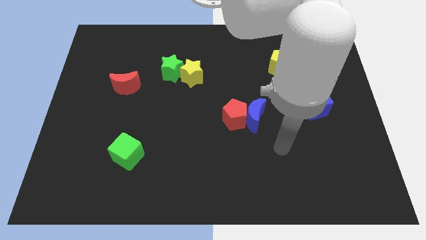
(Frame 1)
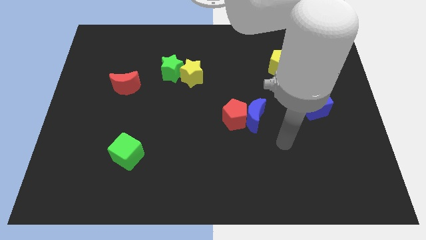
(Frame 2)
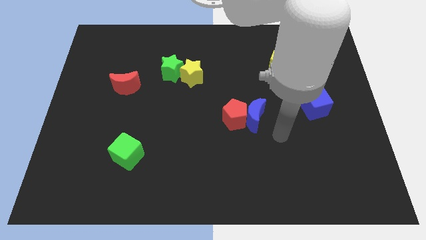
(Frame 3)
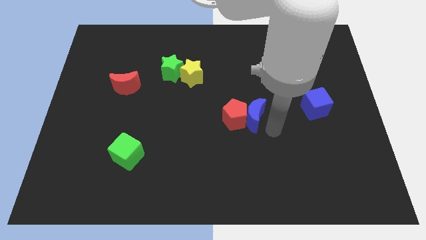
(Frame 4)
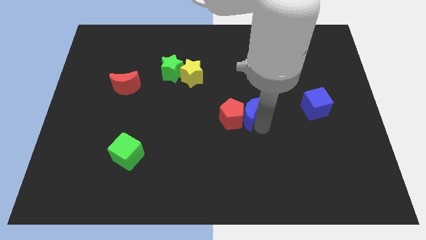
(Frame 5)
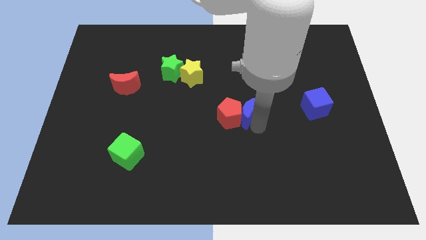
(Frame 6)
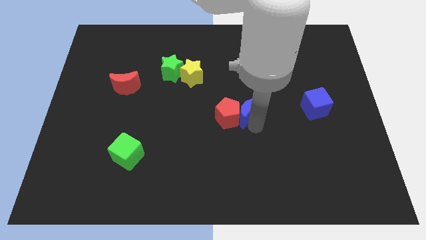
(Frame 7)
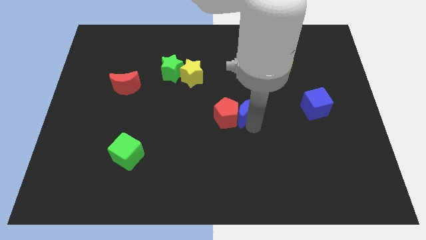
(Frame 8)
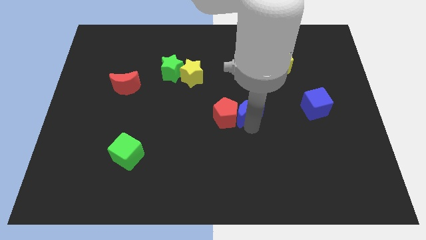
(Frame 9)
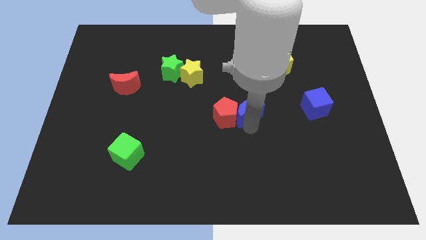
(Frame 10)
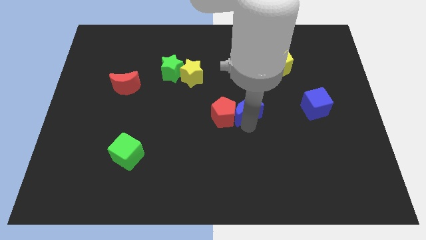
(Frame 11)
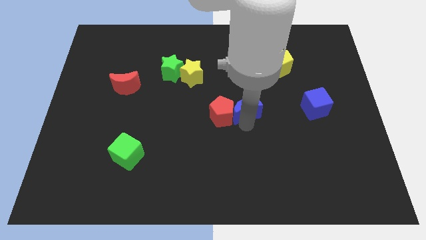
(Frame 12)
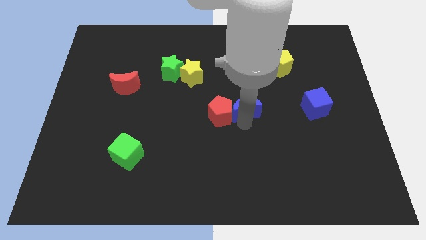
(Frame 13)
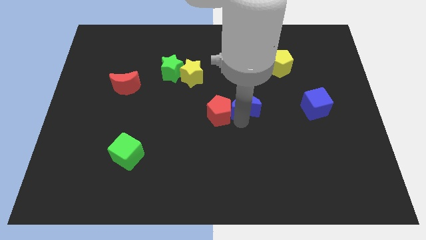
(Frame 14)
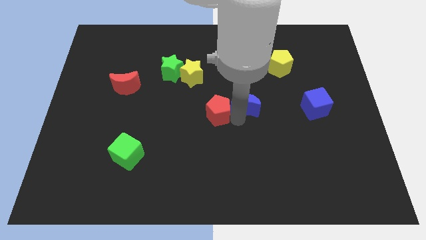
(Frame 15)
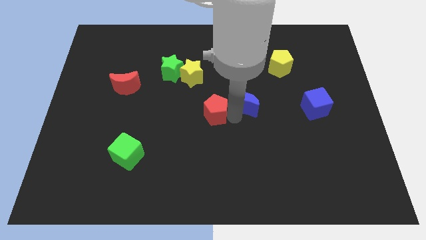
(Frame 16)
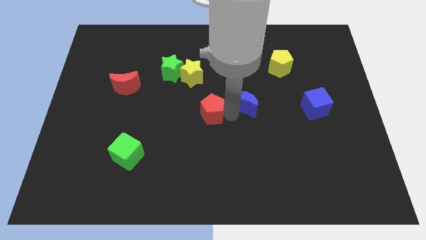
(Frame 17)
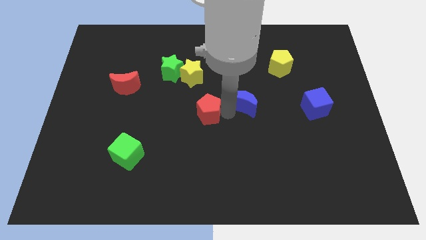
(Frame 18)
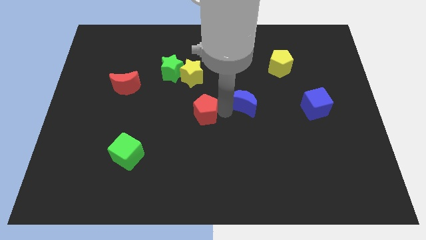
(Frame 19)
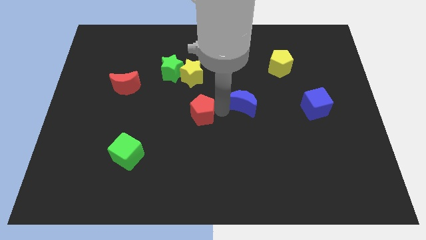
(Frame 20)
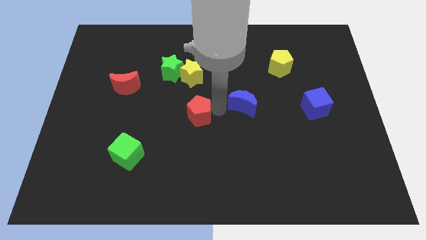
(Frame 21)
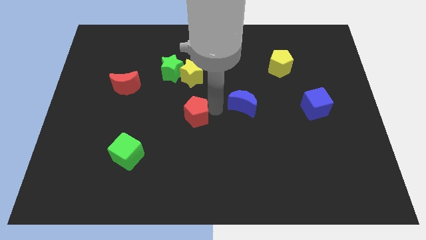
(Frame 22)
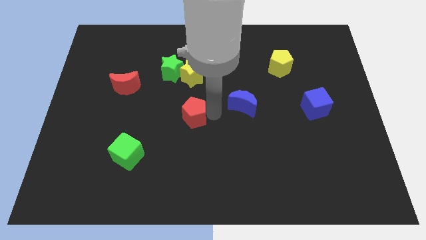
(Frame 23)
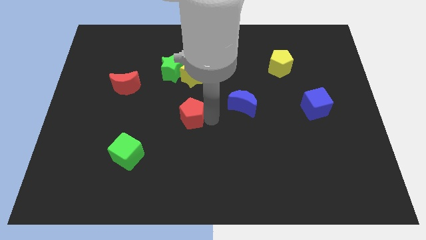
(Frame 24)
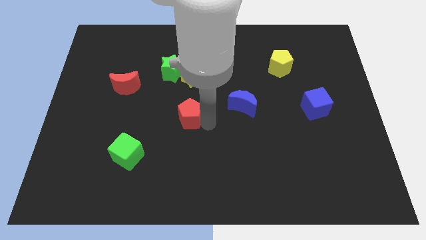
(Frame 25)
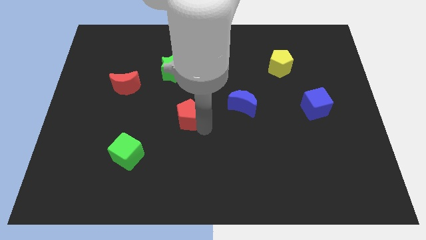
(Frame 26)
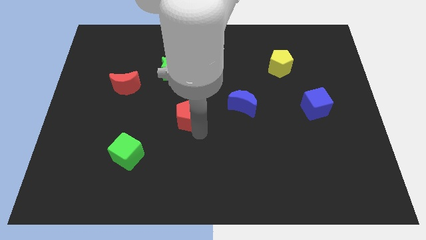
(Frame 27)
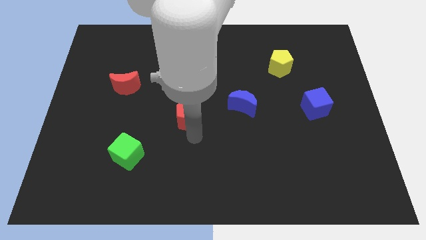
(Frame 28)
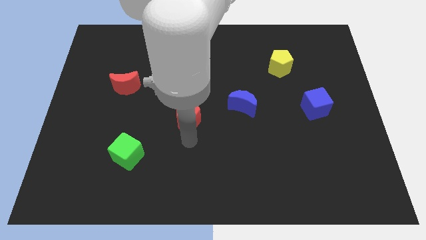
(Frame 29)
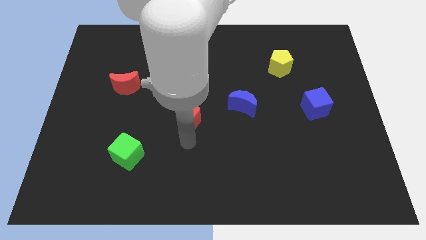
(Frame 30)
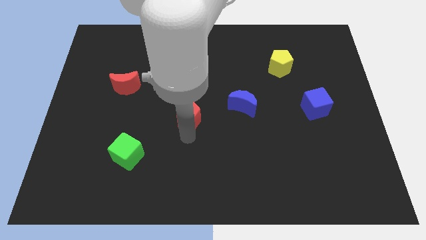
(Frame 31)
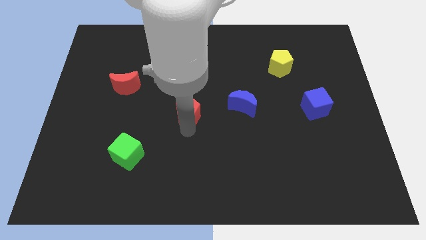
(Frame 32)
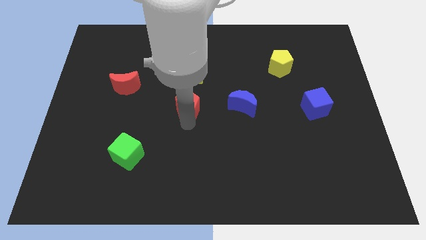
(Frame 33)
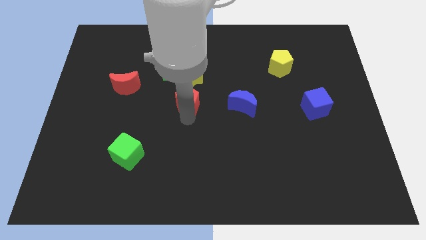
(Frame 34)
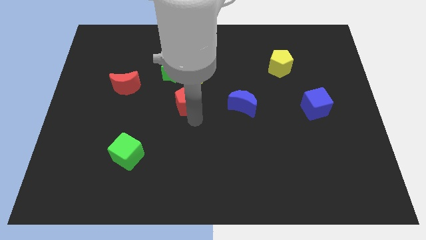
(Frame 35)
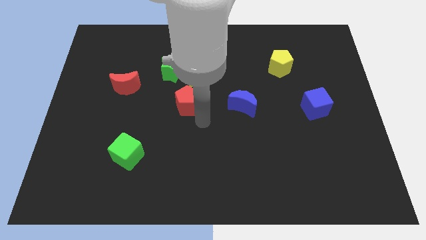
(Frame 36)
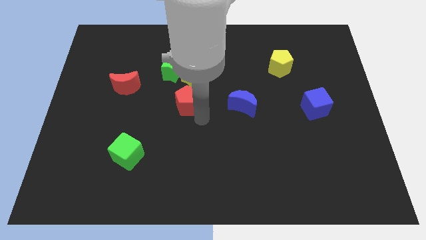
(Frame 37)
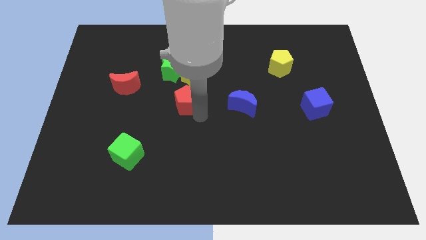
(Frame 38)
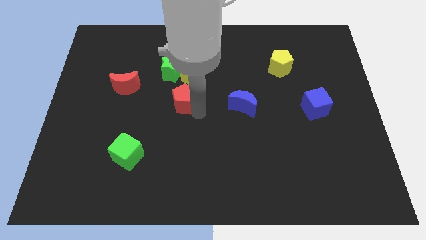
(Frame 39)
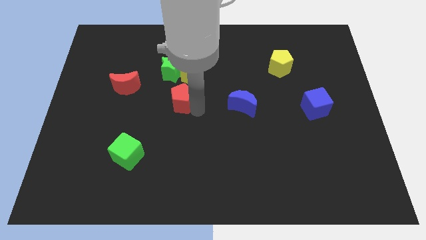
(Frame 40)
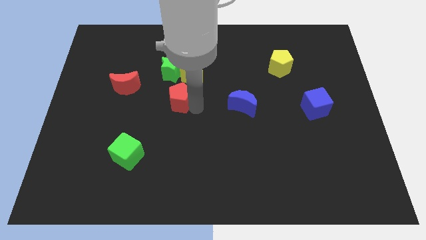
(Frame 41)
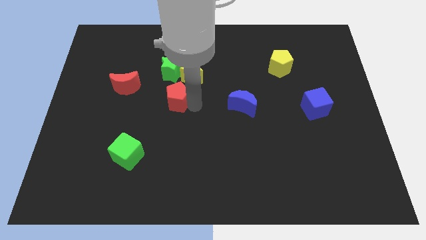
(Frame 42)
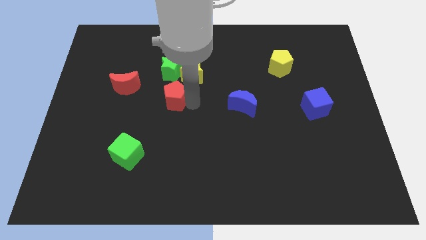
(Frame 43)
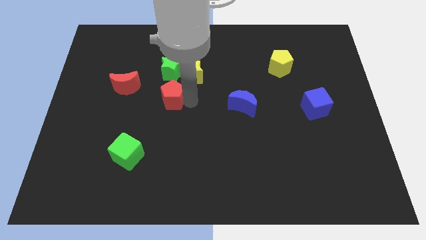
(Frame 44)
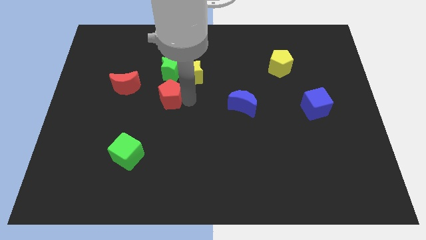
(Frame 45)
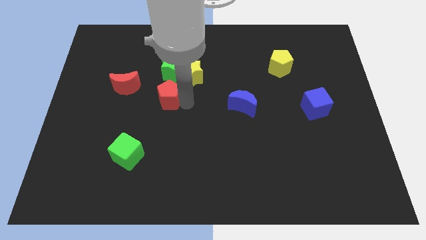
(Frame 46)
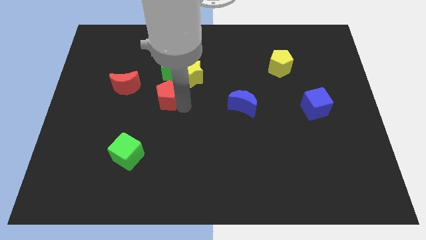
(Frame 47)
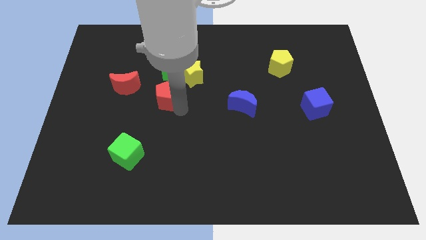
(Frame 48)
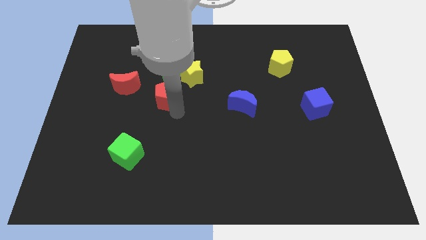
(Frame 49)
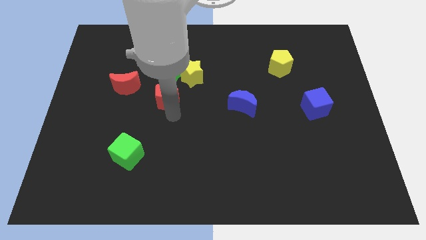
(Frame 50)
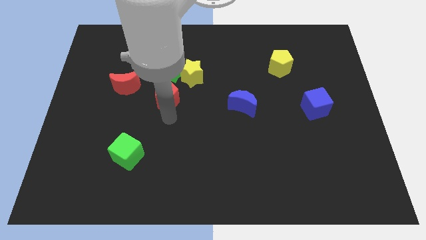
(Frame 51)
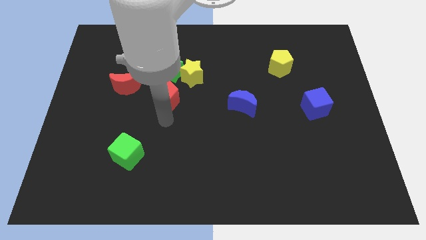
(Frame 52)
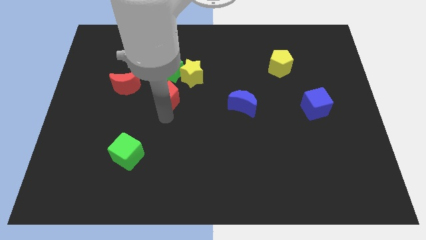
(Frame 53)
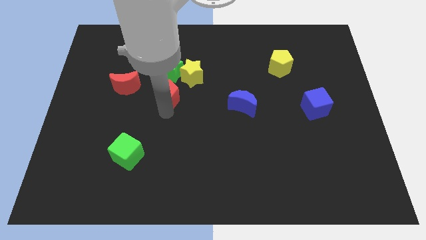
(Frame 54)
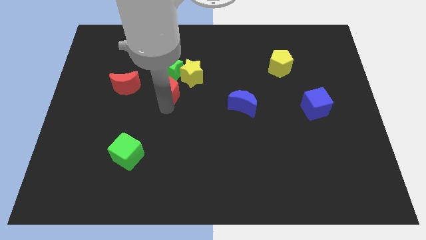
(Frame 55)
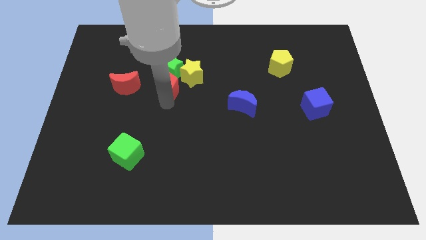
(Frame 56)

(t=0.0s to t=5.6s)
push the red pentagon to the green star
